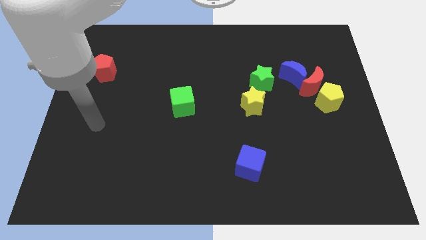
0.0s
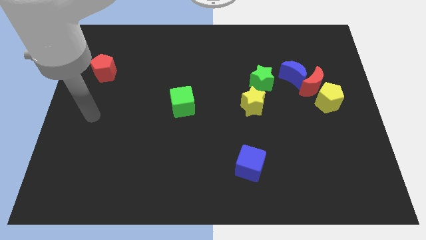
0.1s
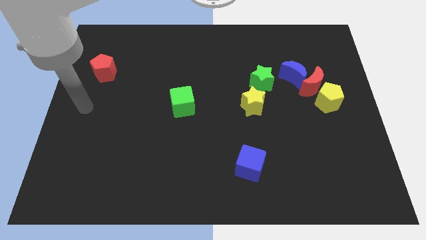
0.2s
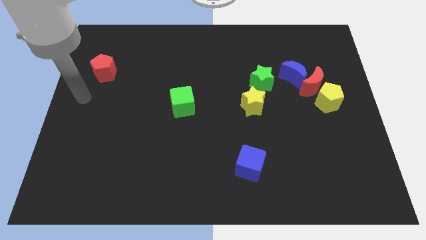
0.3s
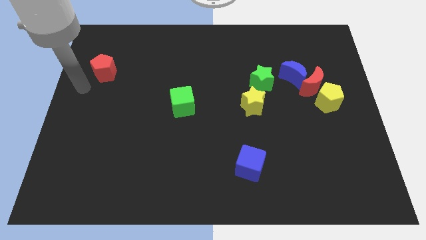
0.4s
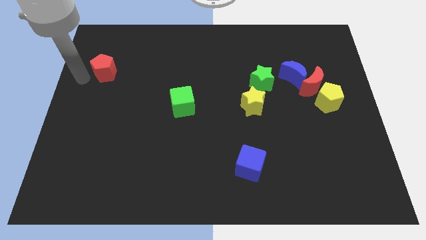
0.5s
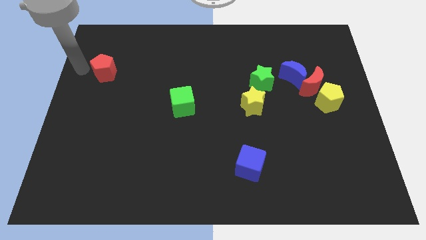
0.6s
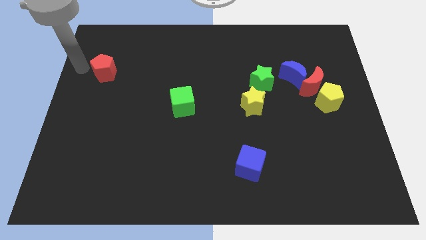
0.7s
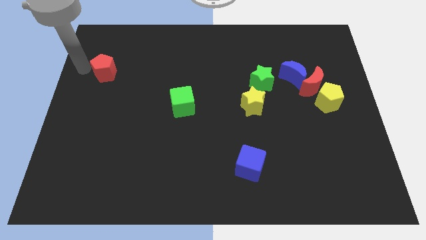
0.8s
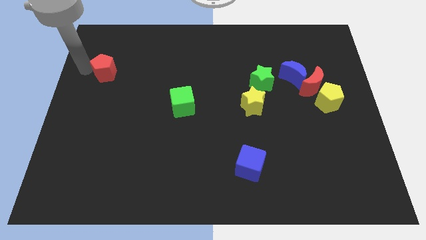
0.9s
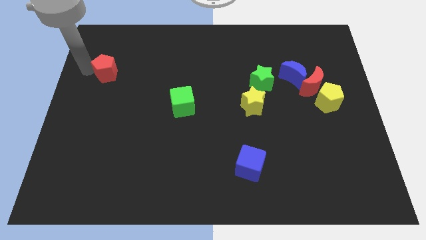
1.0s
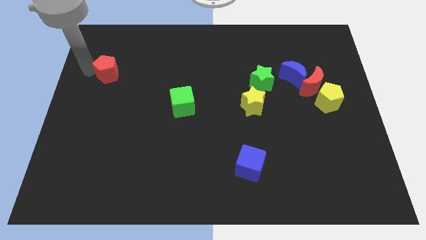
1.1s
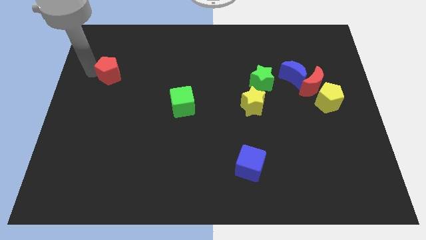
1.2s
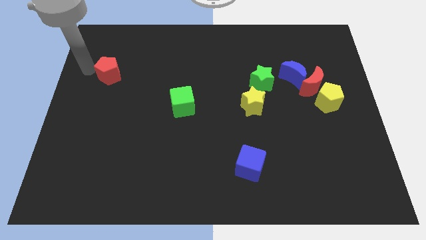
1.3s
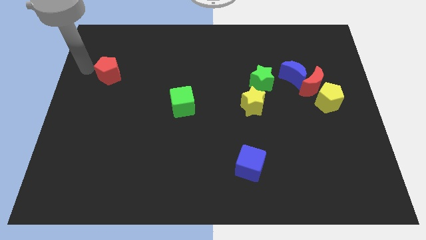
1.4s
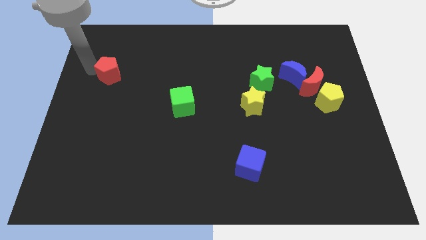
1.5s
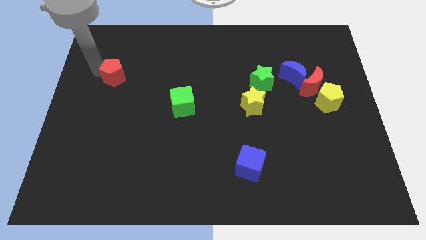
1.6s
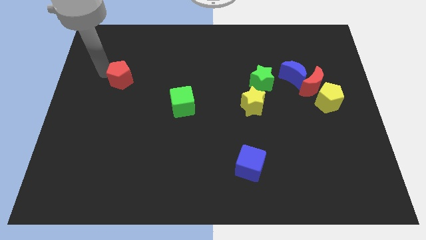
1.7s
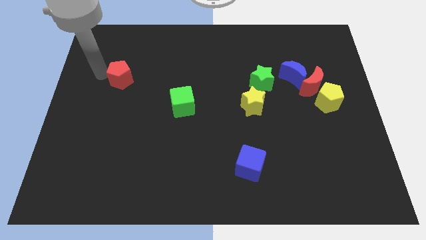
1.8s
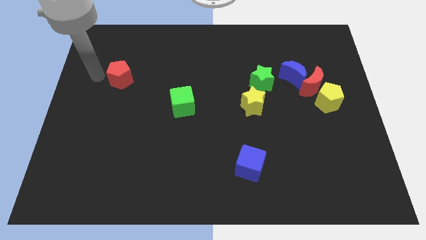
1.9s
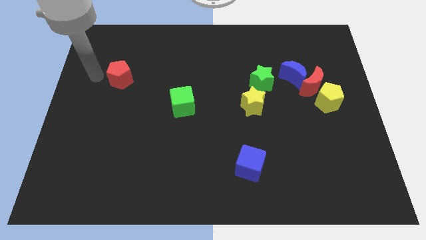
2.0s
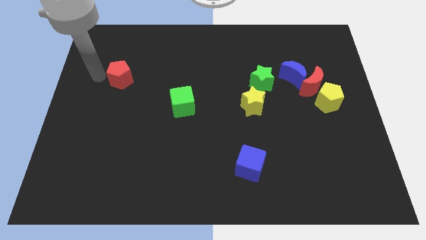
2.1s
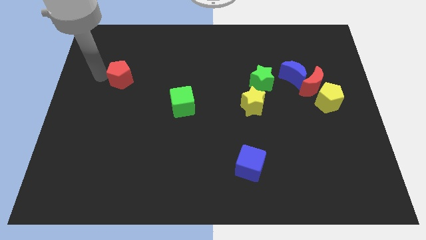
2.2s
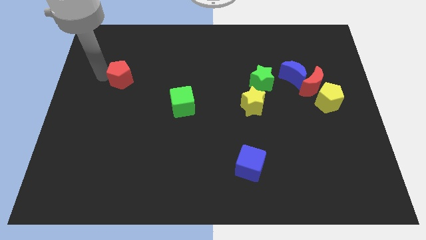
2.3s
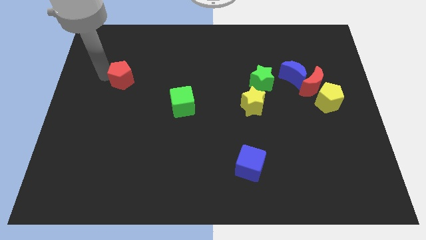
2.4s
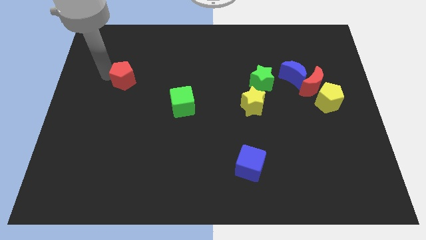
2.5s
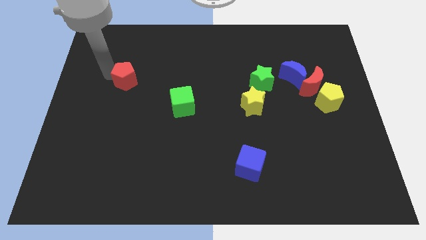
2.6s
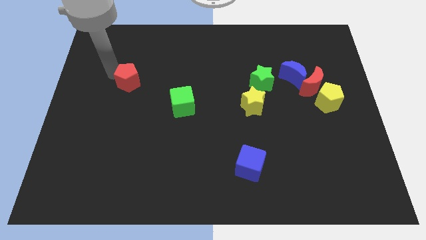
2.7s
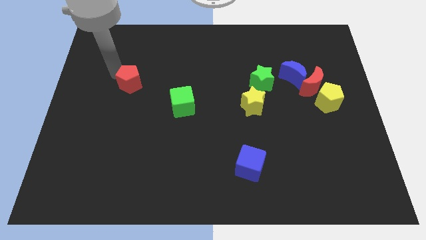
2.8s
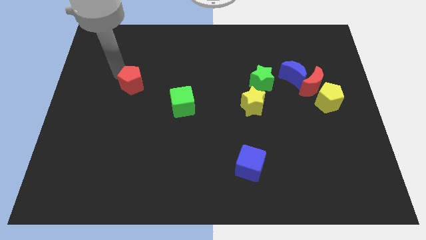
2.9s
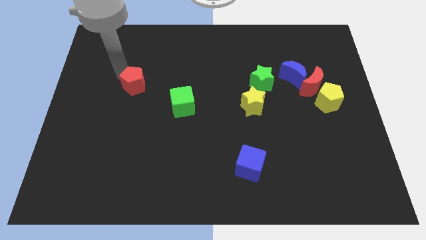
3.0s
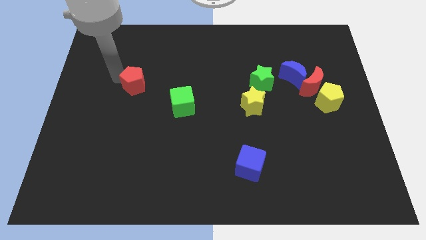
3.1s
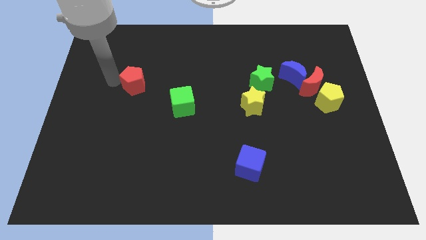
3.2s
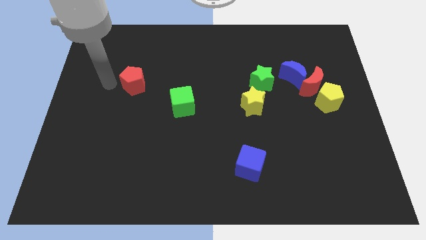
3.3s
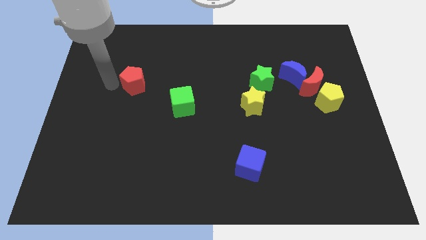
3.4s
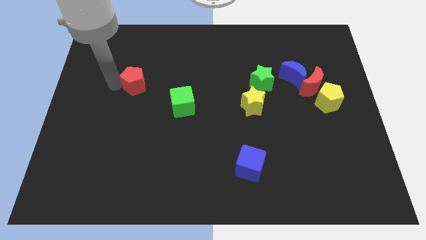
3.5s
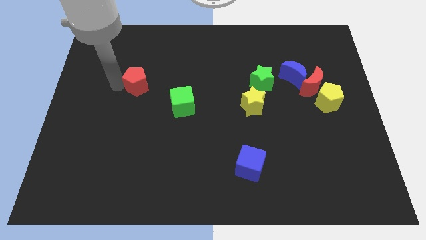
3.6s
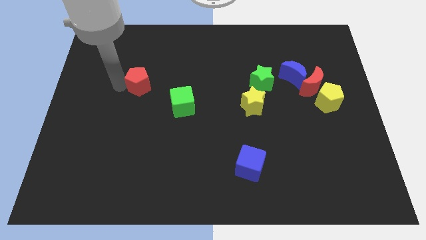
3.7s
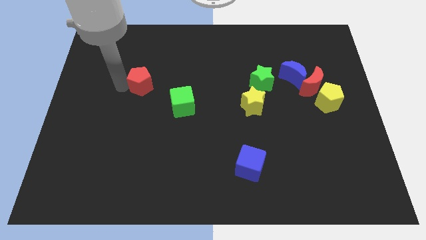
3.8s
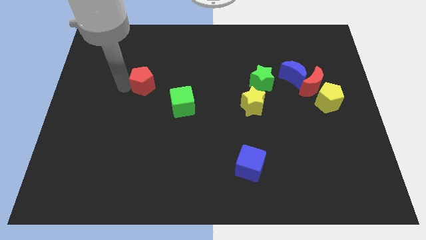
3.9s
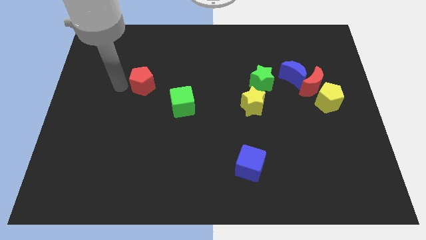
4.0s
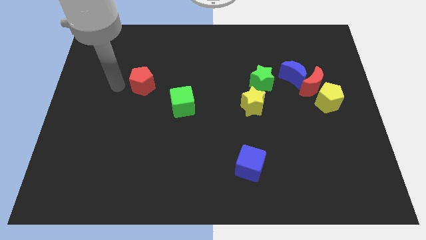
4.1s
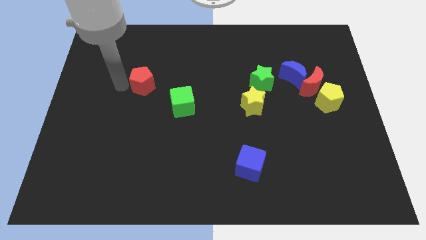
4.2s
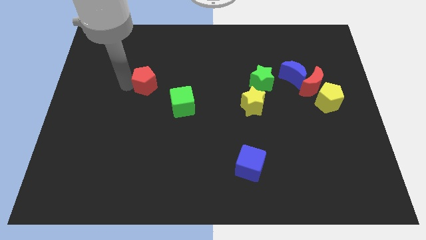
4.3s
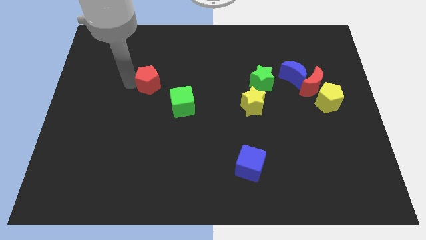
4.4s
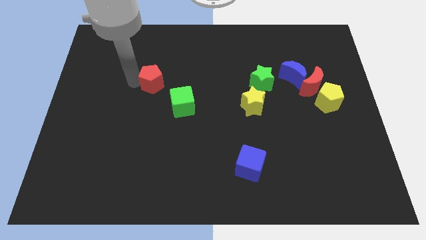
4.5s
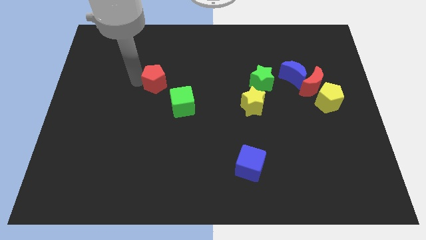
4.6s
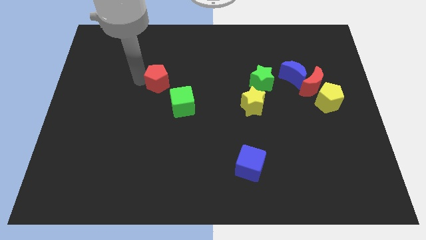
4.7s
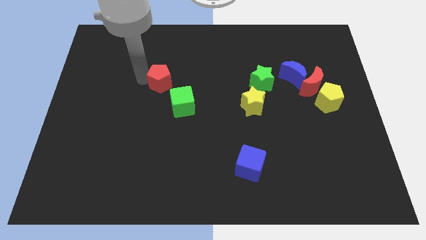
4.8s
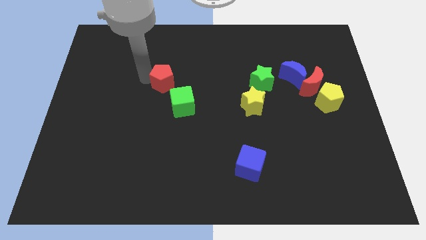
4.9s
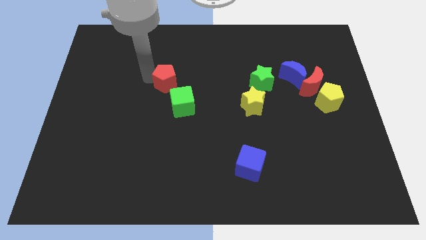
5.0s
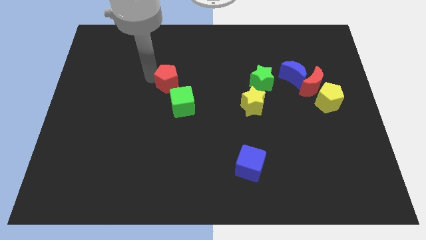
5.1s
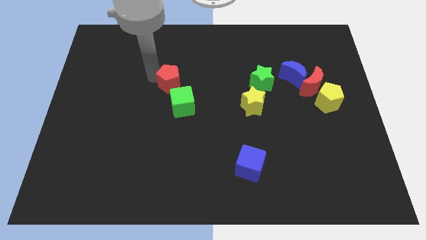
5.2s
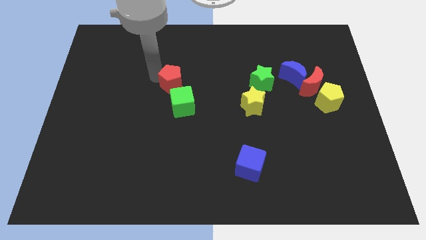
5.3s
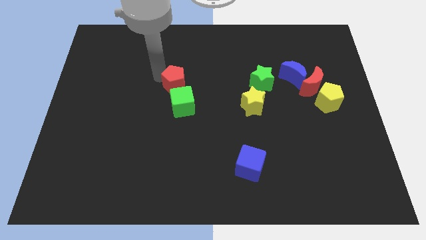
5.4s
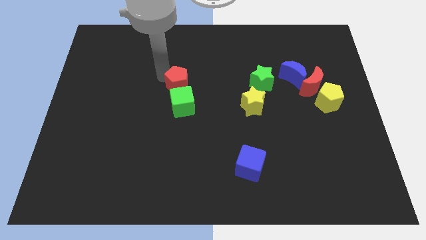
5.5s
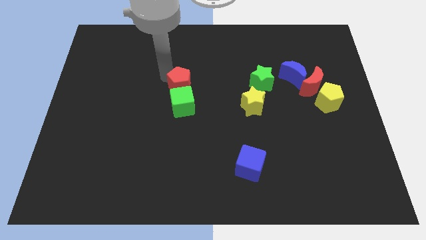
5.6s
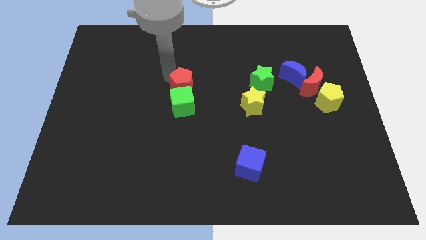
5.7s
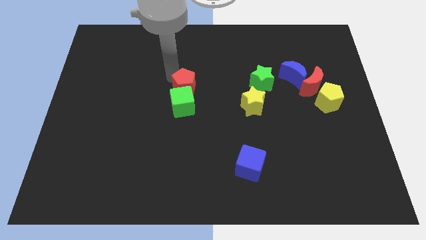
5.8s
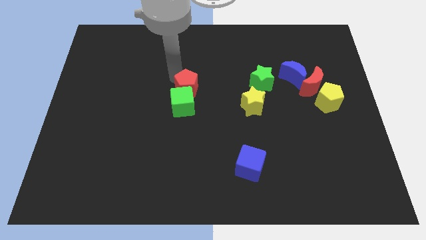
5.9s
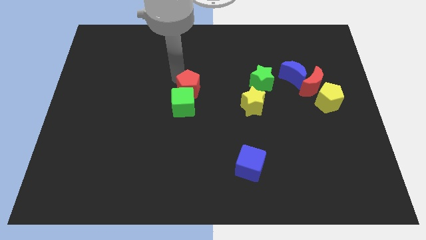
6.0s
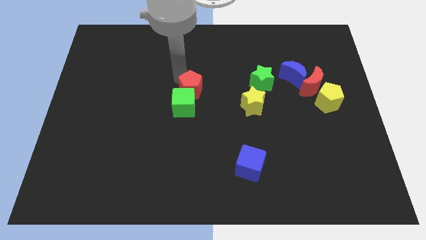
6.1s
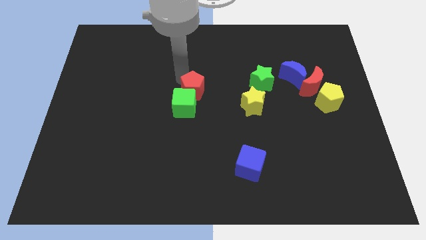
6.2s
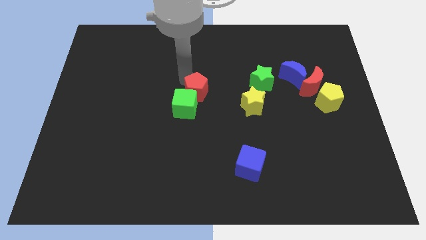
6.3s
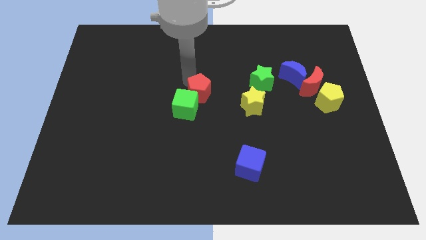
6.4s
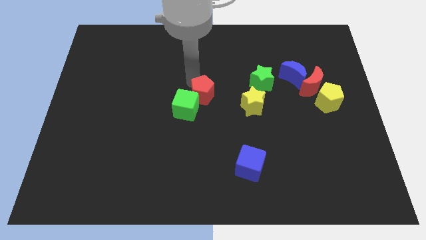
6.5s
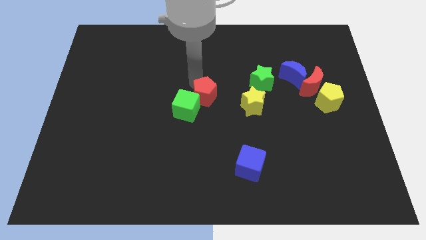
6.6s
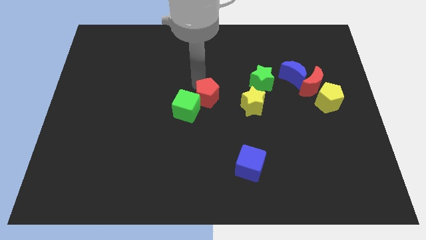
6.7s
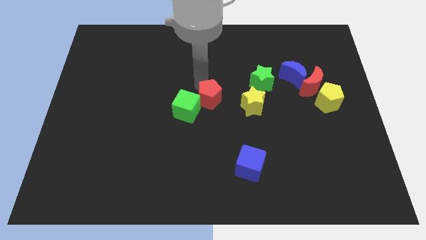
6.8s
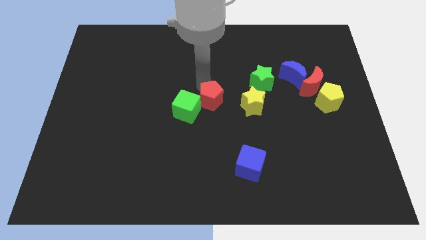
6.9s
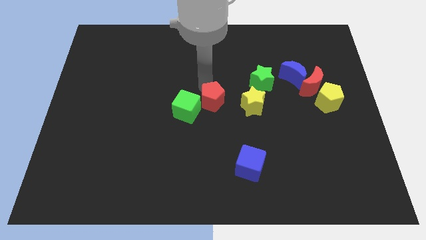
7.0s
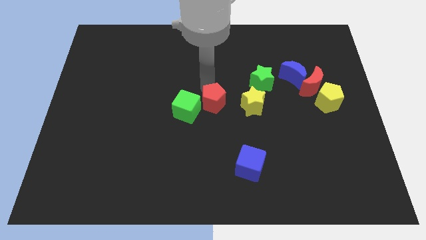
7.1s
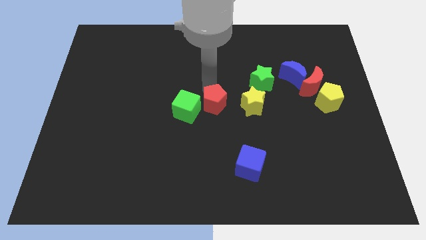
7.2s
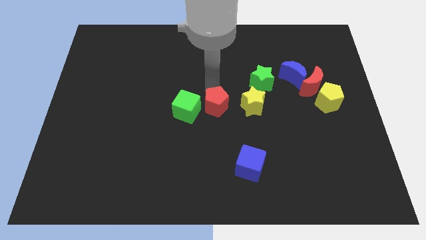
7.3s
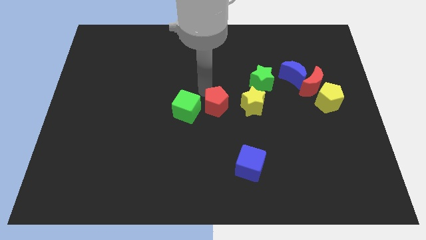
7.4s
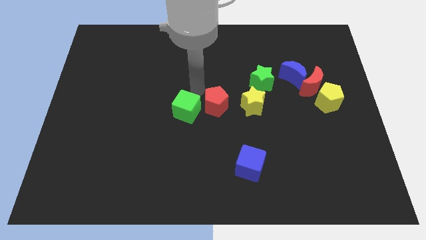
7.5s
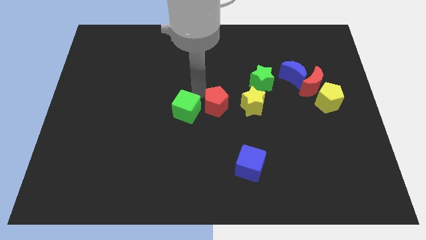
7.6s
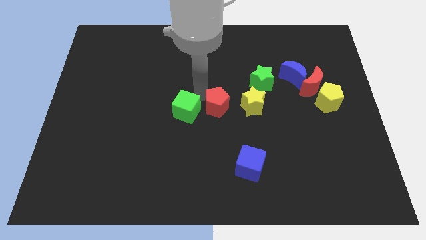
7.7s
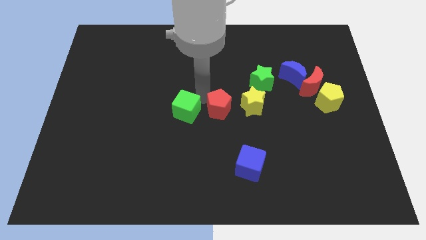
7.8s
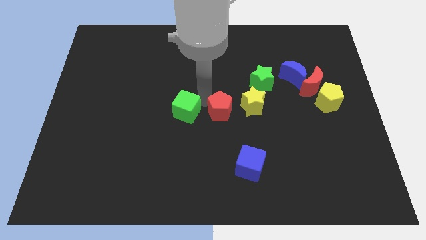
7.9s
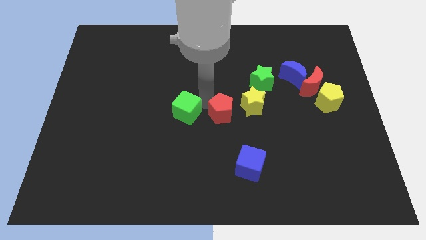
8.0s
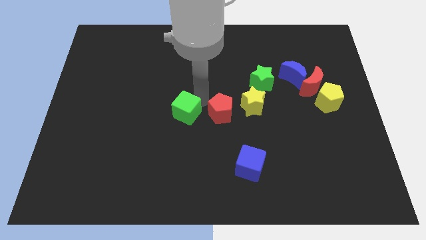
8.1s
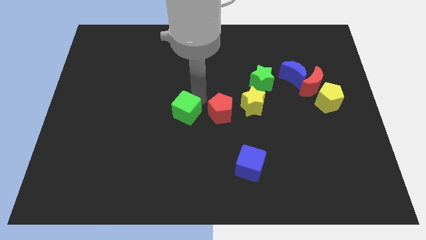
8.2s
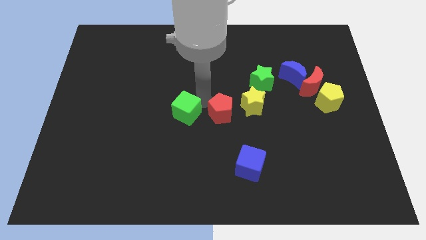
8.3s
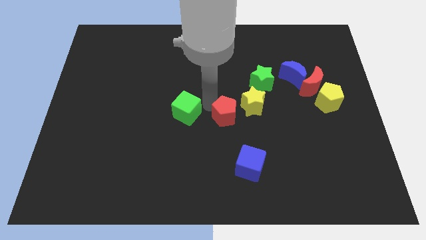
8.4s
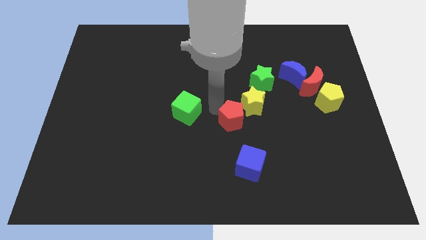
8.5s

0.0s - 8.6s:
push the red pentagon to the top of the blue cube
